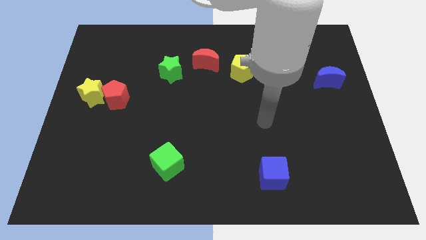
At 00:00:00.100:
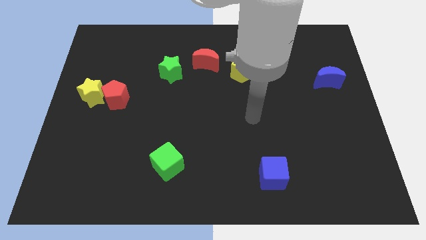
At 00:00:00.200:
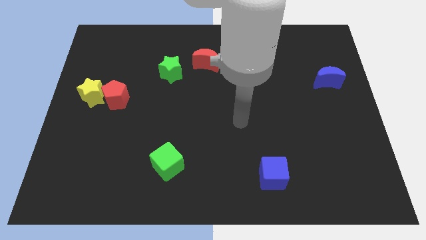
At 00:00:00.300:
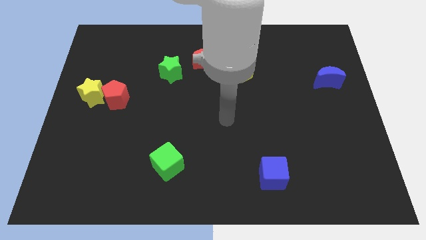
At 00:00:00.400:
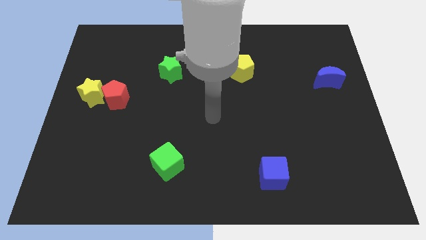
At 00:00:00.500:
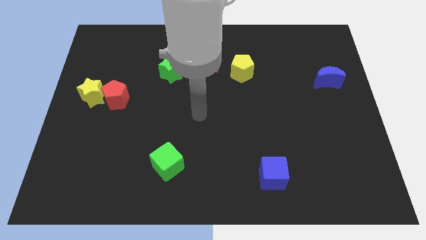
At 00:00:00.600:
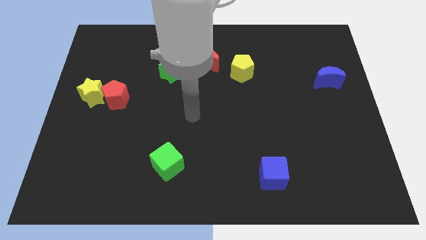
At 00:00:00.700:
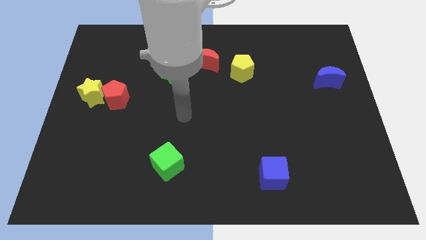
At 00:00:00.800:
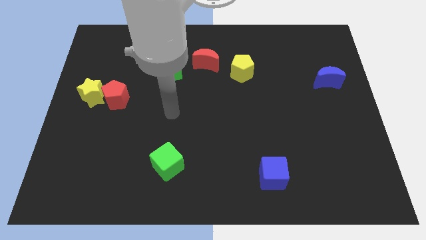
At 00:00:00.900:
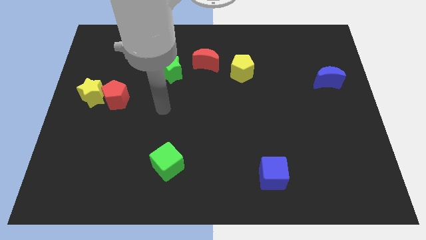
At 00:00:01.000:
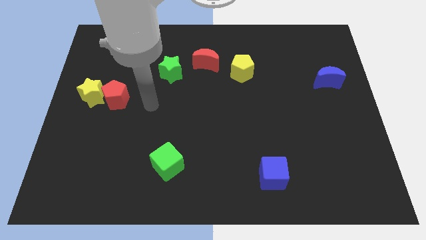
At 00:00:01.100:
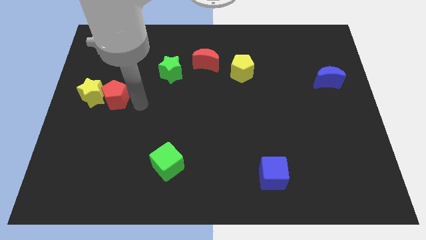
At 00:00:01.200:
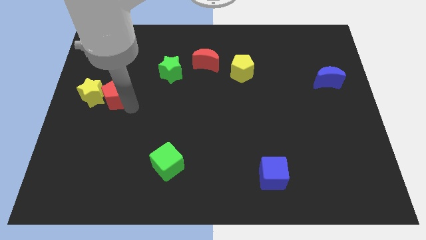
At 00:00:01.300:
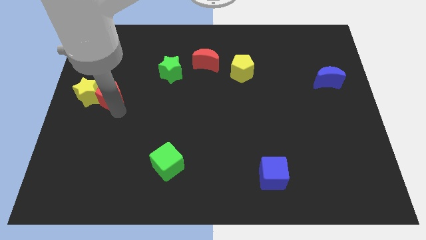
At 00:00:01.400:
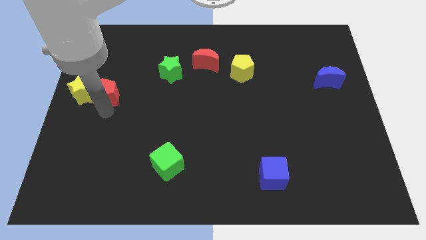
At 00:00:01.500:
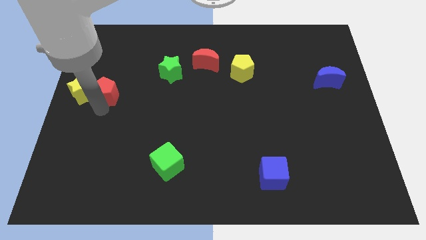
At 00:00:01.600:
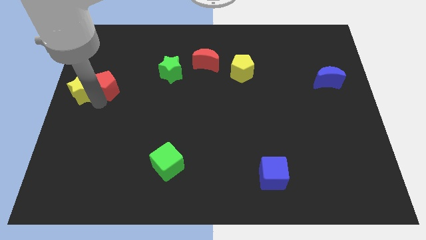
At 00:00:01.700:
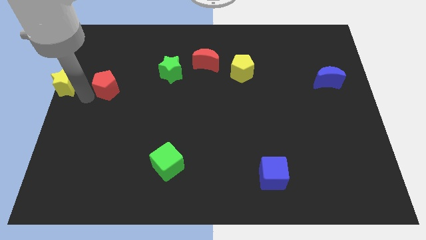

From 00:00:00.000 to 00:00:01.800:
move the red pentagon away from the yellow star

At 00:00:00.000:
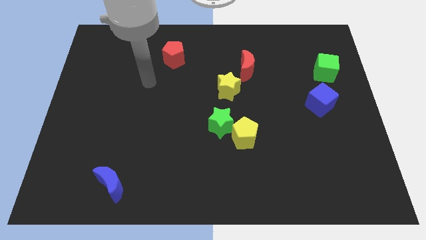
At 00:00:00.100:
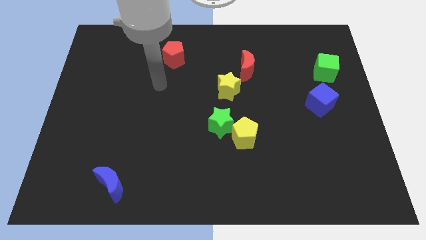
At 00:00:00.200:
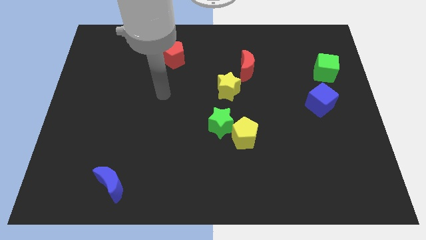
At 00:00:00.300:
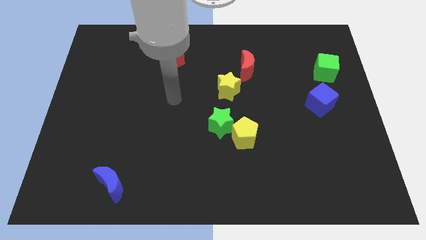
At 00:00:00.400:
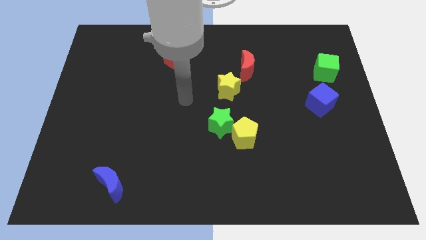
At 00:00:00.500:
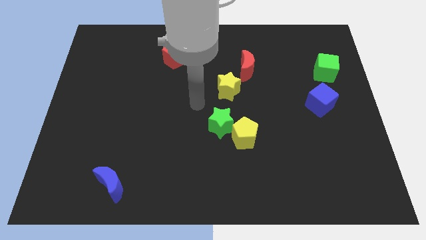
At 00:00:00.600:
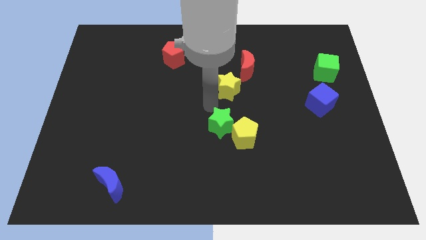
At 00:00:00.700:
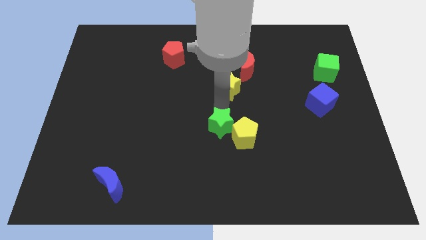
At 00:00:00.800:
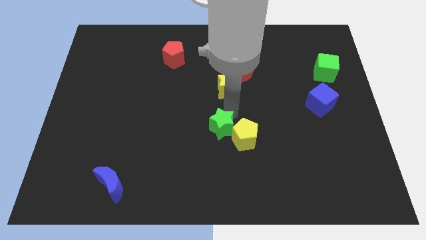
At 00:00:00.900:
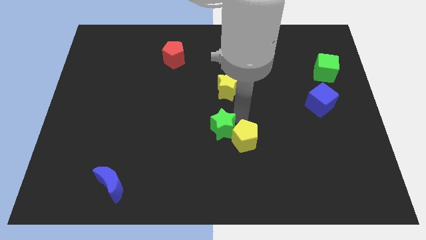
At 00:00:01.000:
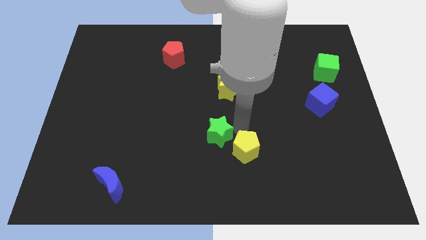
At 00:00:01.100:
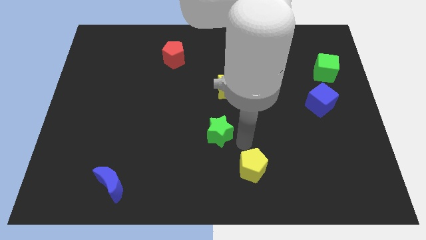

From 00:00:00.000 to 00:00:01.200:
move the green star away from the yellow pentagon

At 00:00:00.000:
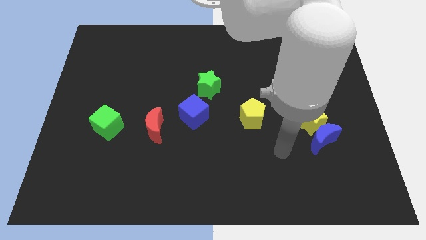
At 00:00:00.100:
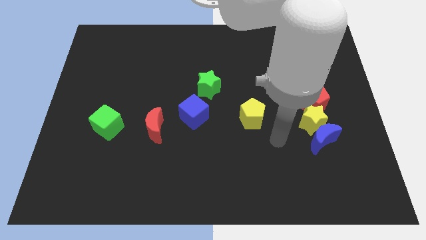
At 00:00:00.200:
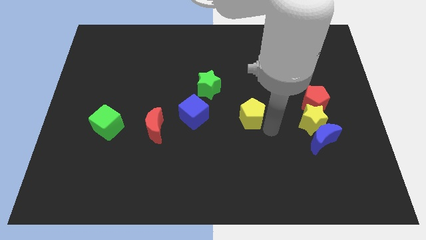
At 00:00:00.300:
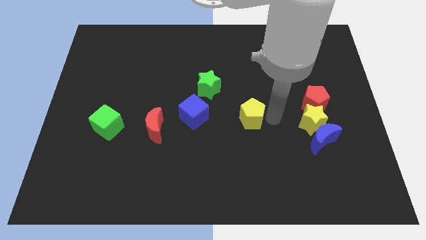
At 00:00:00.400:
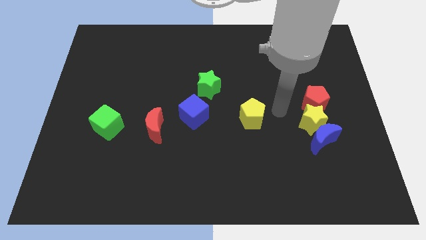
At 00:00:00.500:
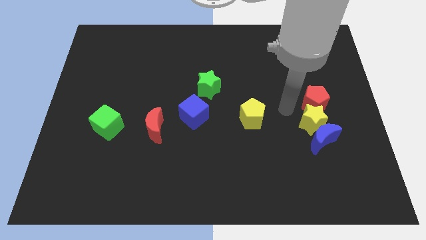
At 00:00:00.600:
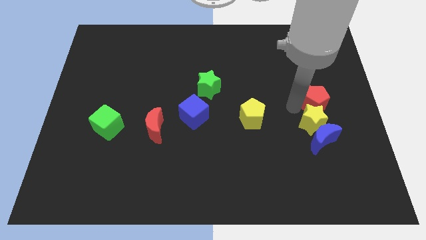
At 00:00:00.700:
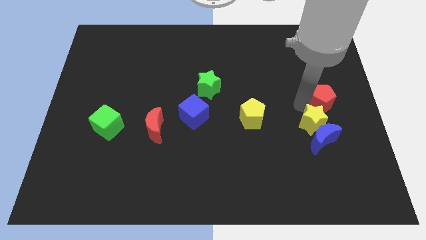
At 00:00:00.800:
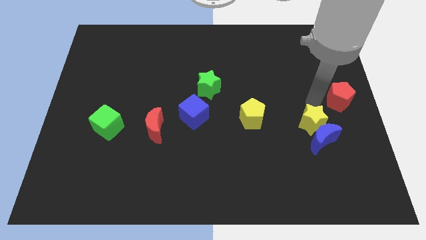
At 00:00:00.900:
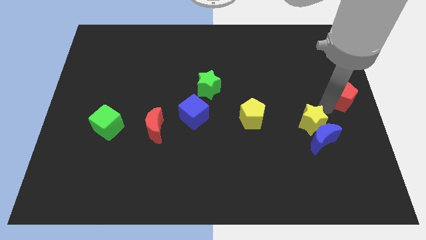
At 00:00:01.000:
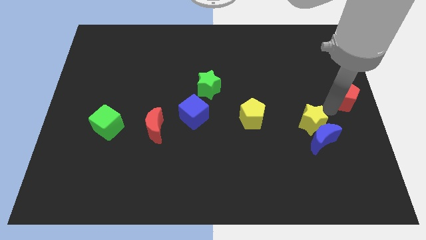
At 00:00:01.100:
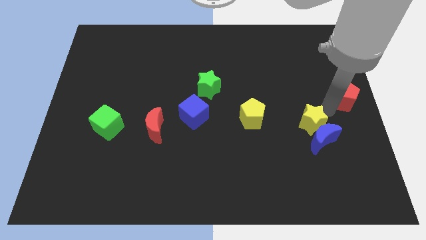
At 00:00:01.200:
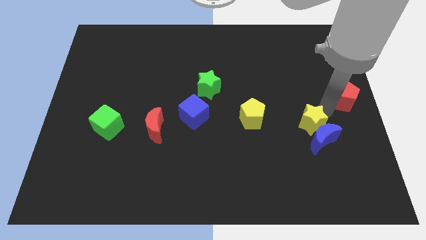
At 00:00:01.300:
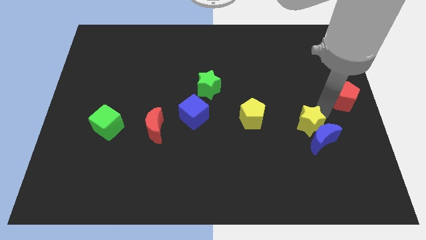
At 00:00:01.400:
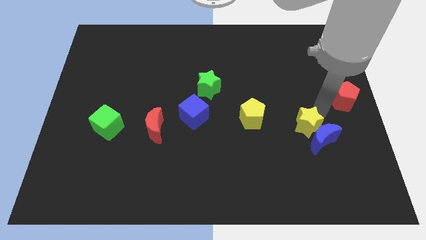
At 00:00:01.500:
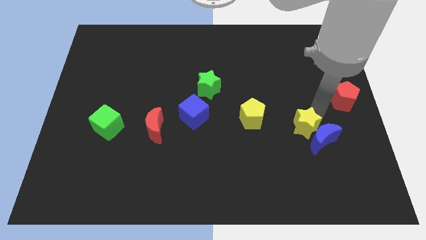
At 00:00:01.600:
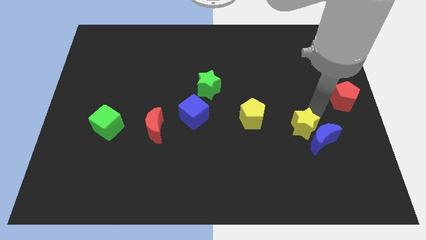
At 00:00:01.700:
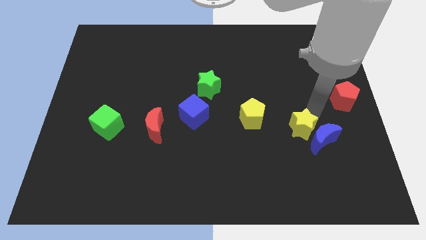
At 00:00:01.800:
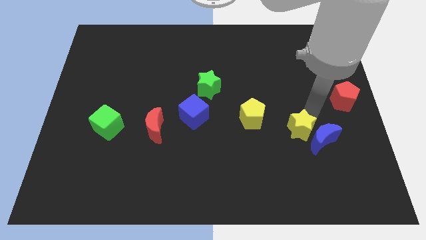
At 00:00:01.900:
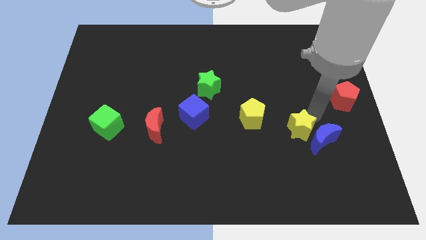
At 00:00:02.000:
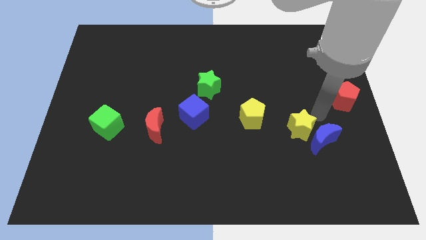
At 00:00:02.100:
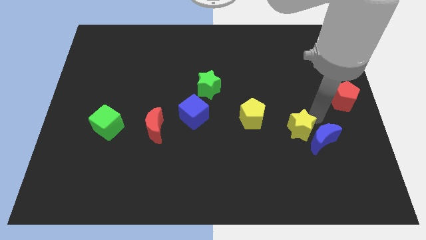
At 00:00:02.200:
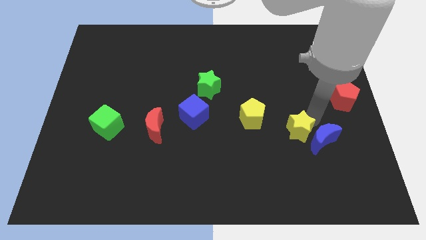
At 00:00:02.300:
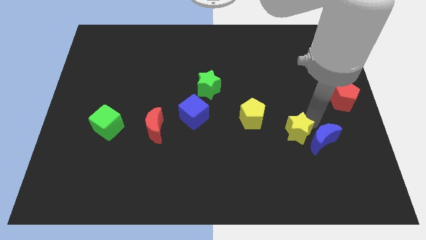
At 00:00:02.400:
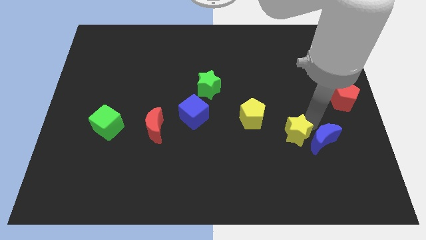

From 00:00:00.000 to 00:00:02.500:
move the yellow star away from the blue moon and red pentagon

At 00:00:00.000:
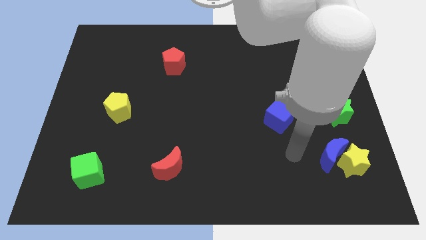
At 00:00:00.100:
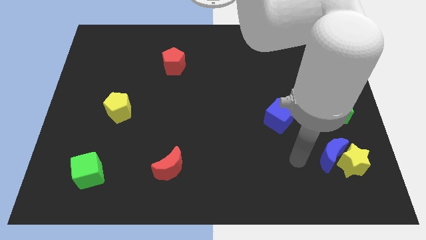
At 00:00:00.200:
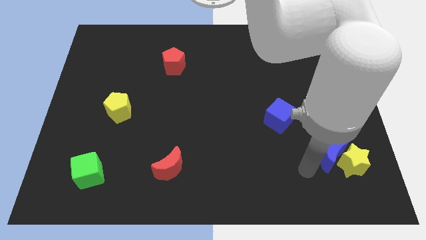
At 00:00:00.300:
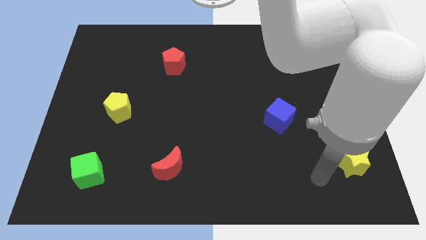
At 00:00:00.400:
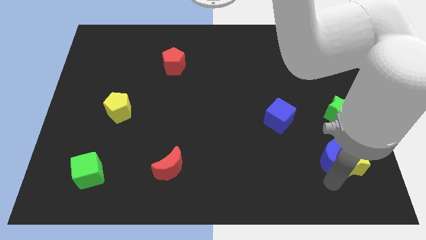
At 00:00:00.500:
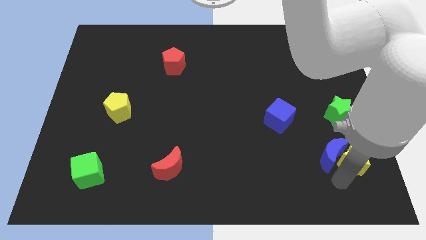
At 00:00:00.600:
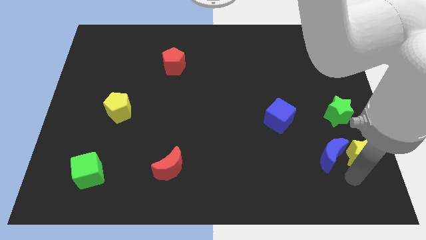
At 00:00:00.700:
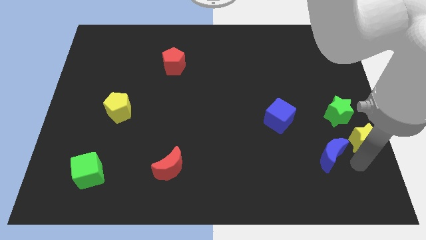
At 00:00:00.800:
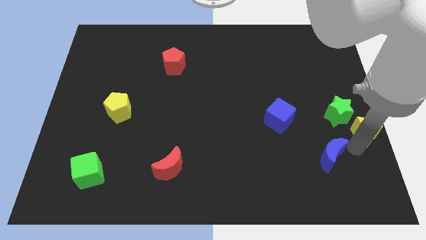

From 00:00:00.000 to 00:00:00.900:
separate the blue moon from the yellow star

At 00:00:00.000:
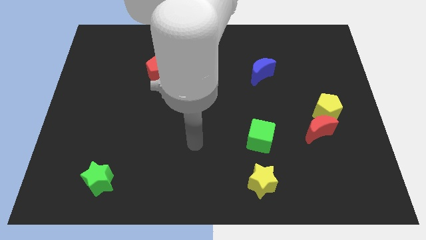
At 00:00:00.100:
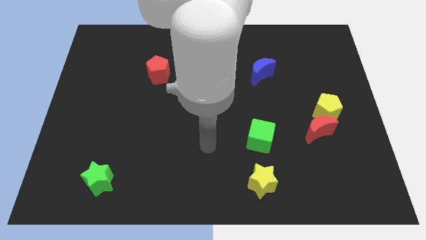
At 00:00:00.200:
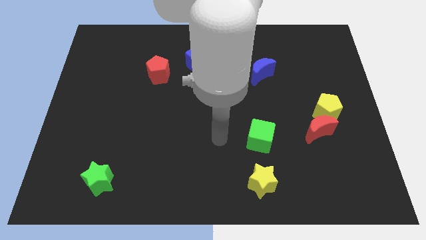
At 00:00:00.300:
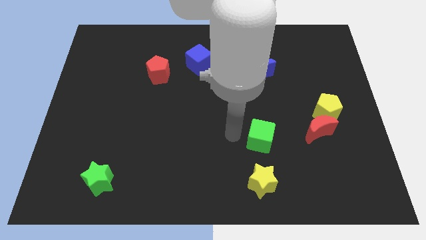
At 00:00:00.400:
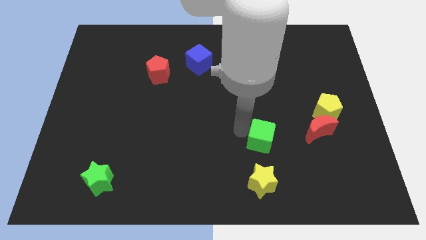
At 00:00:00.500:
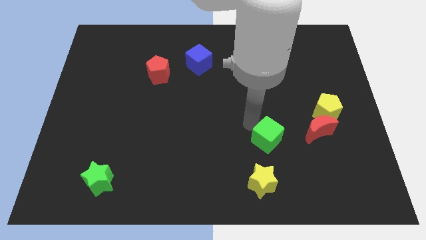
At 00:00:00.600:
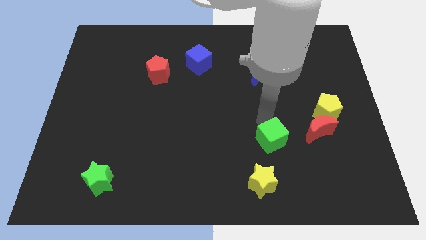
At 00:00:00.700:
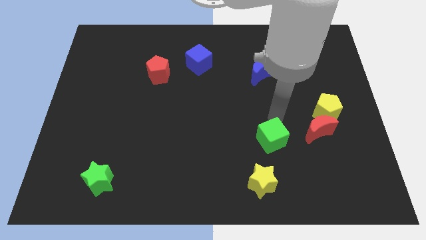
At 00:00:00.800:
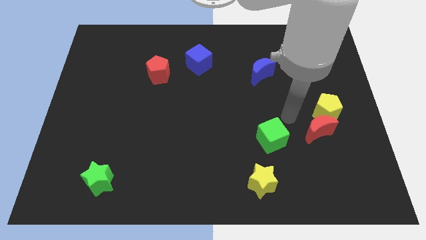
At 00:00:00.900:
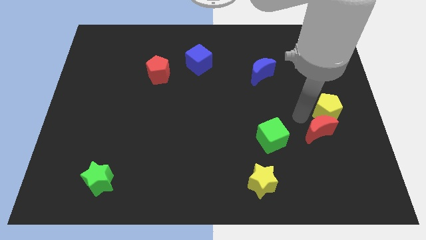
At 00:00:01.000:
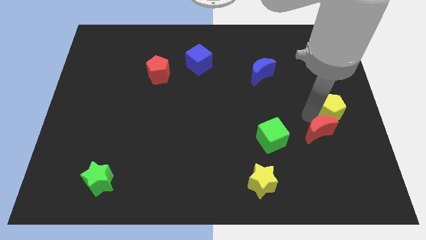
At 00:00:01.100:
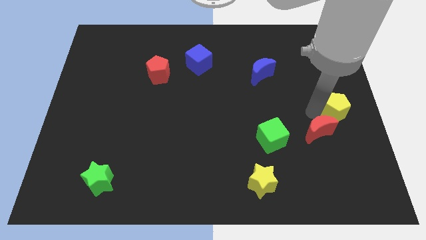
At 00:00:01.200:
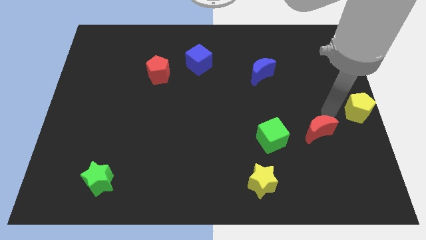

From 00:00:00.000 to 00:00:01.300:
move the red moon away from the yellow pentagon

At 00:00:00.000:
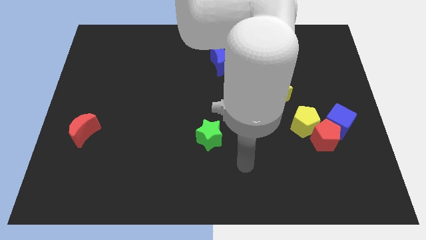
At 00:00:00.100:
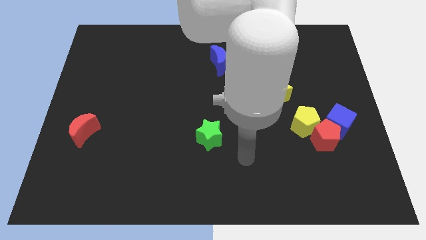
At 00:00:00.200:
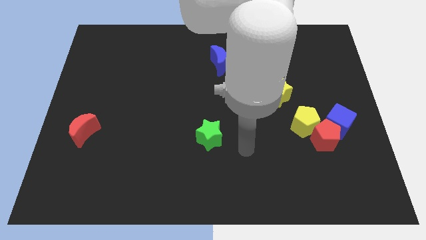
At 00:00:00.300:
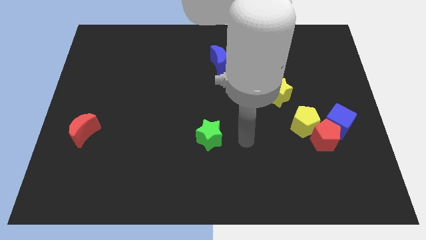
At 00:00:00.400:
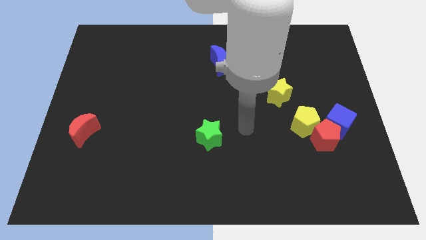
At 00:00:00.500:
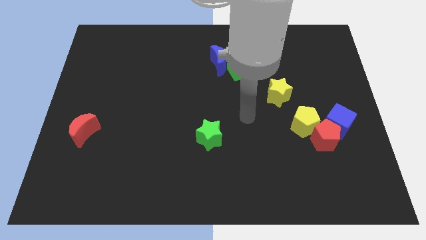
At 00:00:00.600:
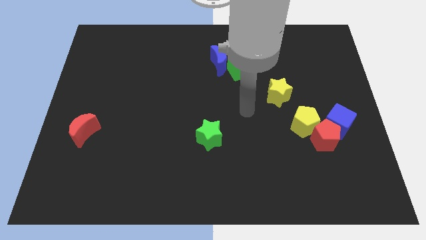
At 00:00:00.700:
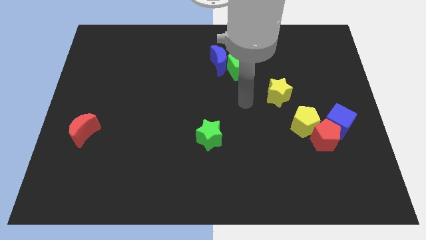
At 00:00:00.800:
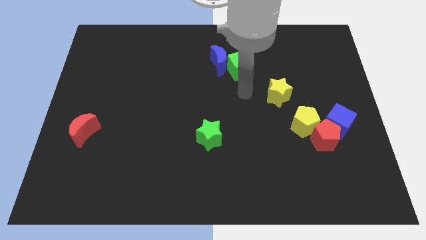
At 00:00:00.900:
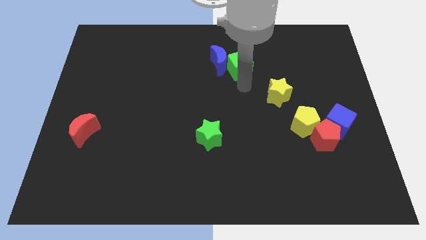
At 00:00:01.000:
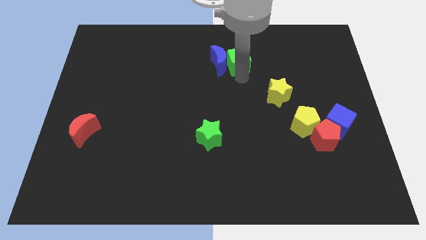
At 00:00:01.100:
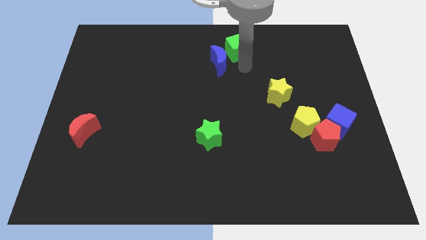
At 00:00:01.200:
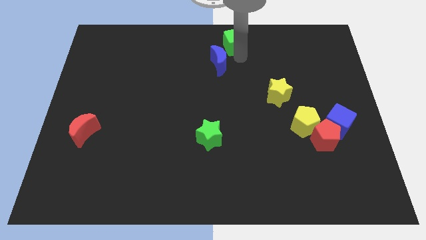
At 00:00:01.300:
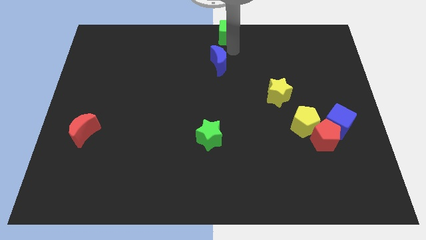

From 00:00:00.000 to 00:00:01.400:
pull the blue moon apart from the green cube

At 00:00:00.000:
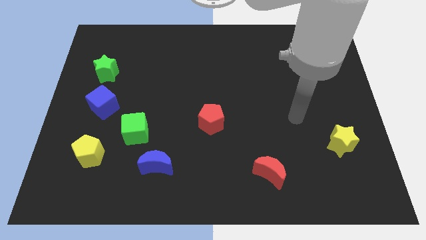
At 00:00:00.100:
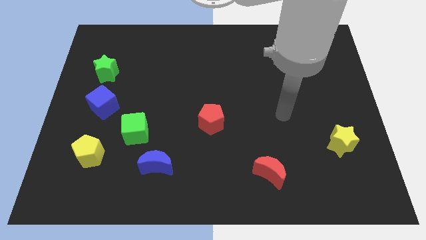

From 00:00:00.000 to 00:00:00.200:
separate the blue moon from the green cube
